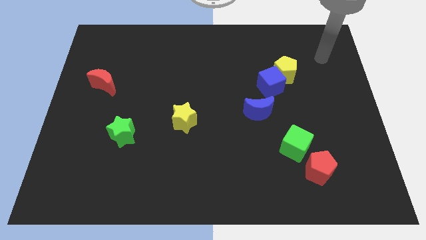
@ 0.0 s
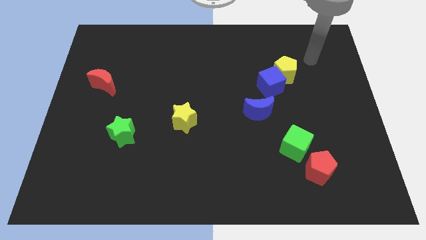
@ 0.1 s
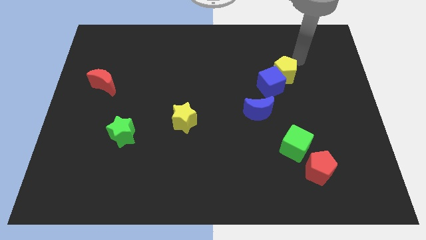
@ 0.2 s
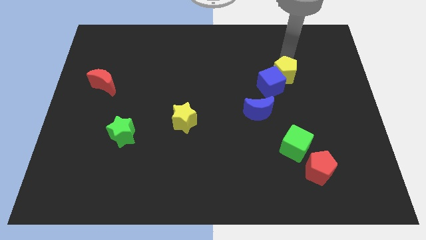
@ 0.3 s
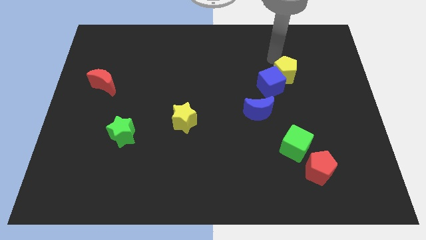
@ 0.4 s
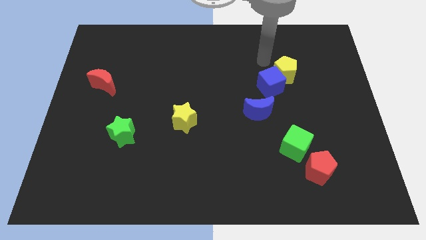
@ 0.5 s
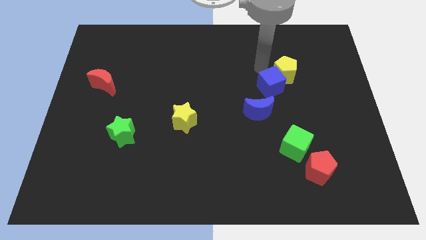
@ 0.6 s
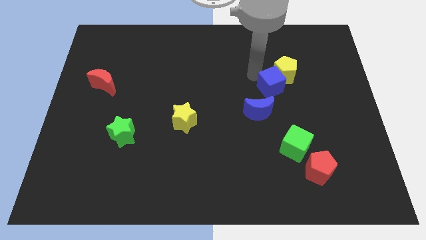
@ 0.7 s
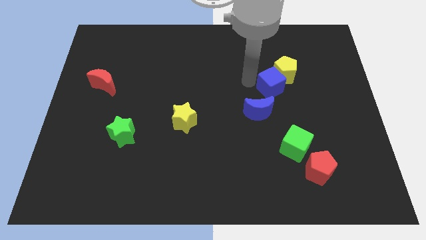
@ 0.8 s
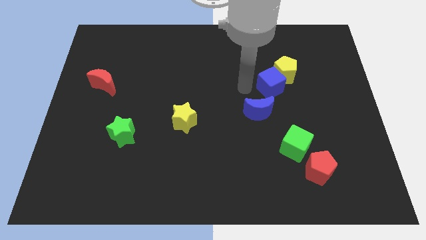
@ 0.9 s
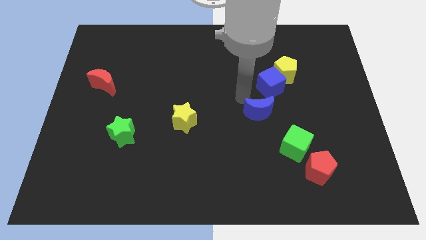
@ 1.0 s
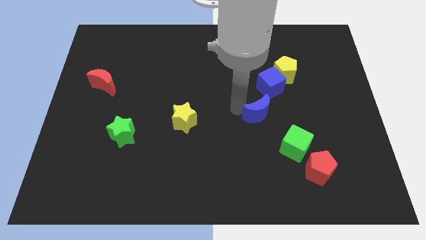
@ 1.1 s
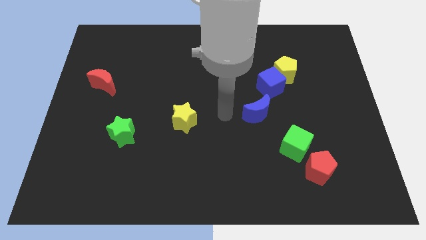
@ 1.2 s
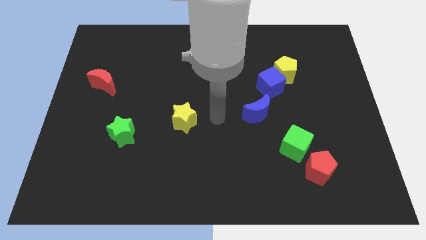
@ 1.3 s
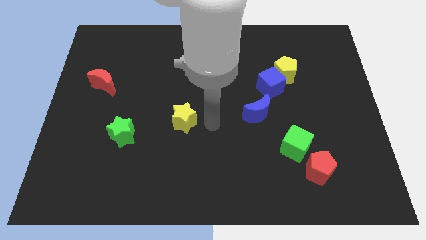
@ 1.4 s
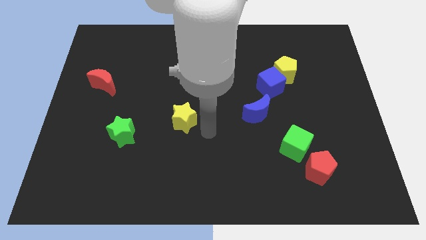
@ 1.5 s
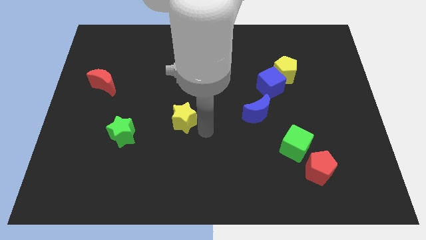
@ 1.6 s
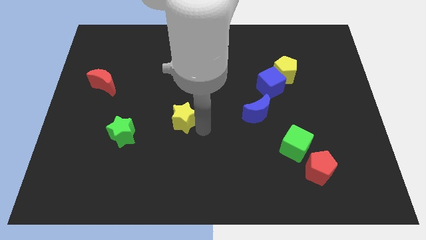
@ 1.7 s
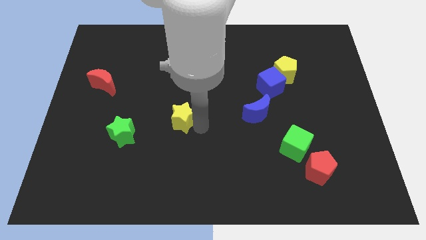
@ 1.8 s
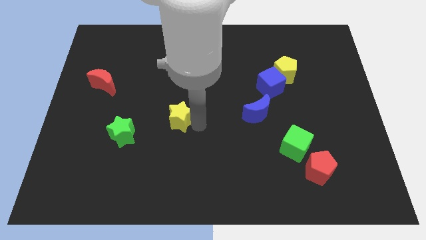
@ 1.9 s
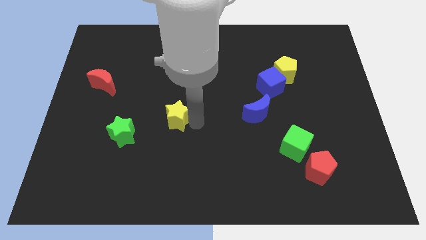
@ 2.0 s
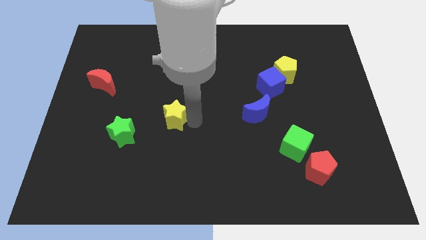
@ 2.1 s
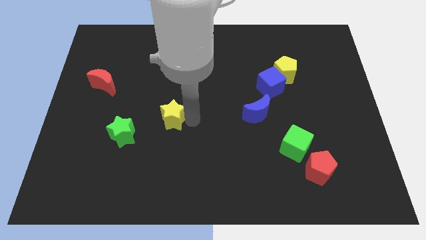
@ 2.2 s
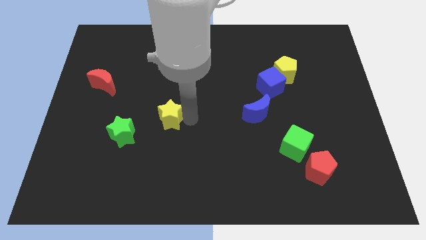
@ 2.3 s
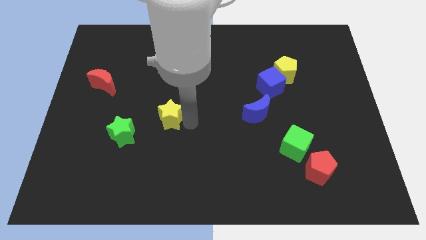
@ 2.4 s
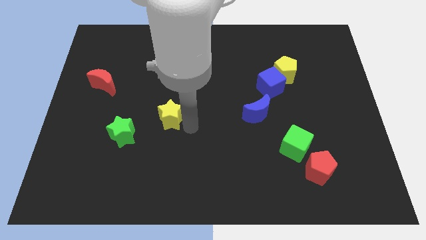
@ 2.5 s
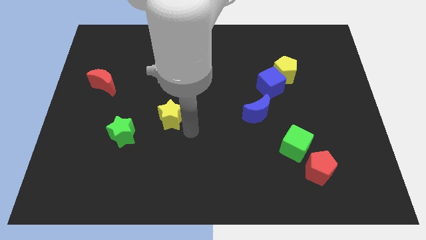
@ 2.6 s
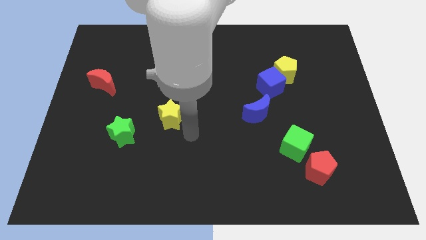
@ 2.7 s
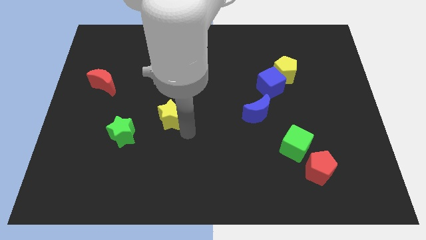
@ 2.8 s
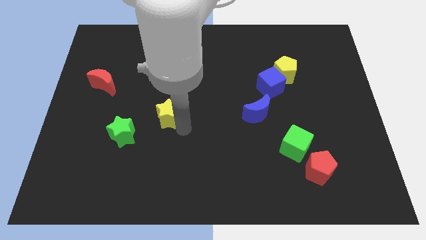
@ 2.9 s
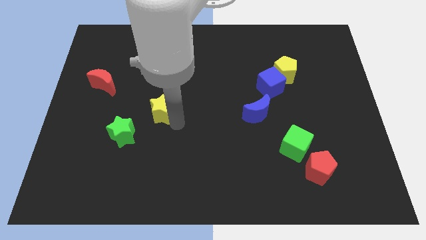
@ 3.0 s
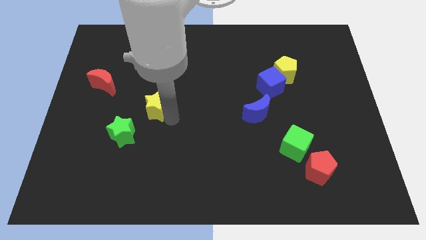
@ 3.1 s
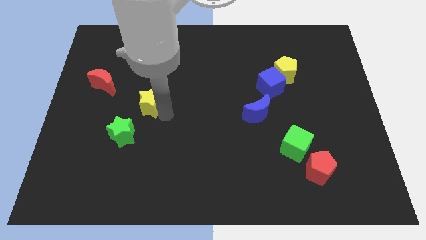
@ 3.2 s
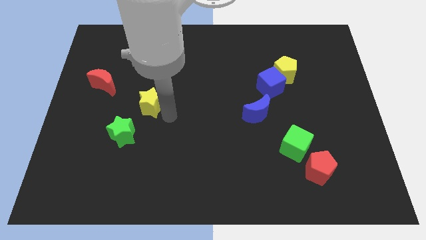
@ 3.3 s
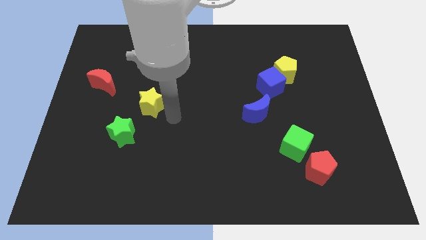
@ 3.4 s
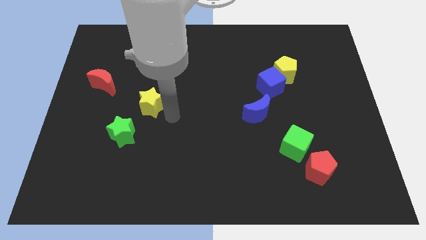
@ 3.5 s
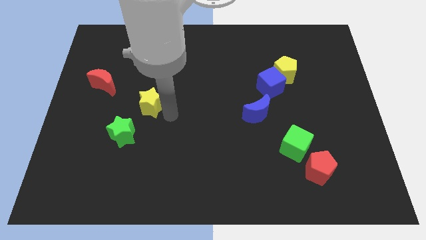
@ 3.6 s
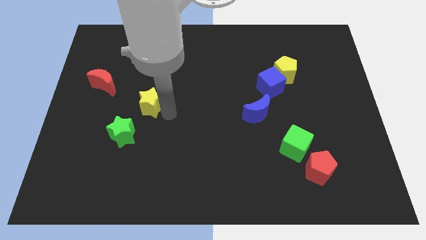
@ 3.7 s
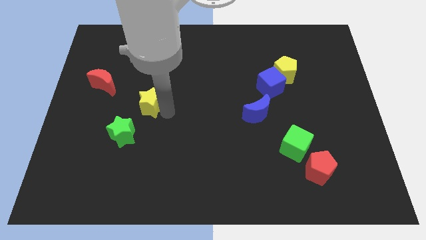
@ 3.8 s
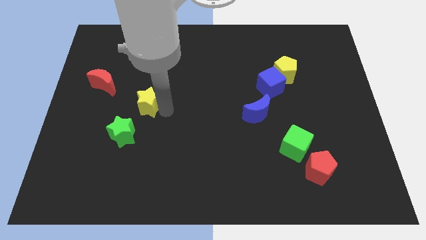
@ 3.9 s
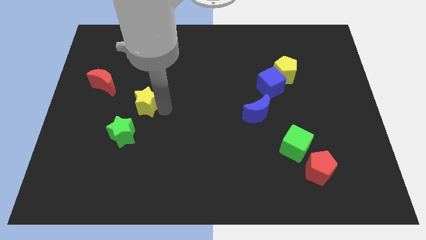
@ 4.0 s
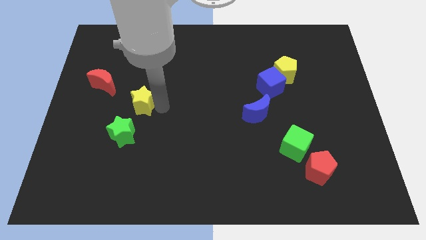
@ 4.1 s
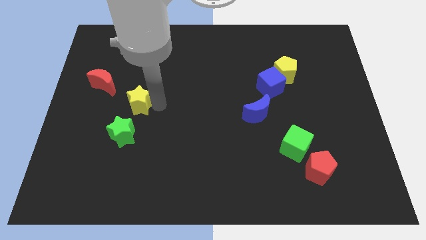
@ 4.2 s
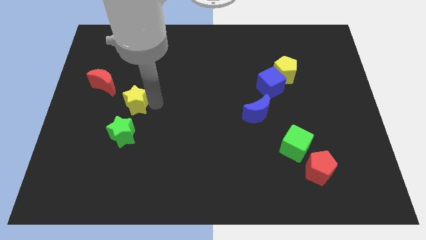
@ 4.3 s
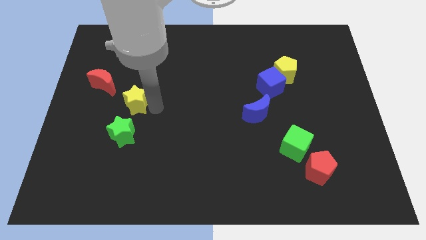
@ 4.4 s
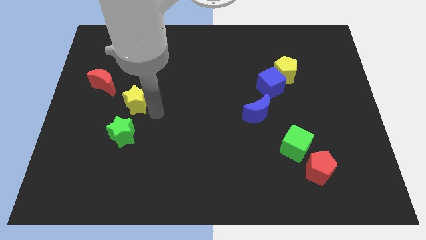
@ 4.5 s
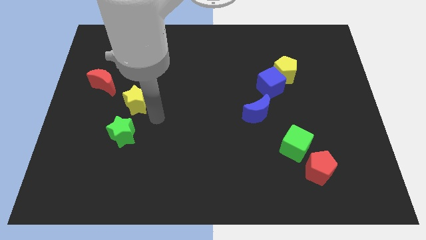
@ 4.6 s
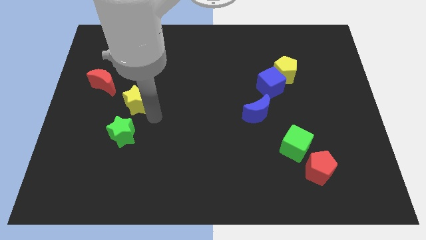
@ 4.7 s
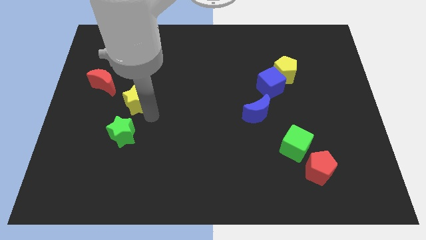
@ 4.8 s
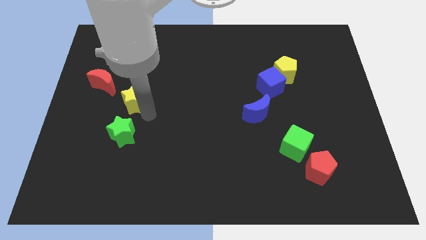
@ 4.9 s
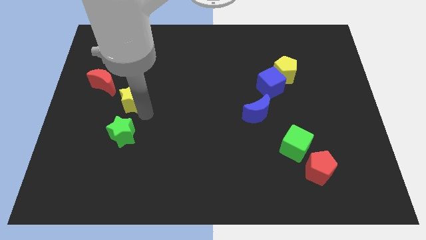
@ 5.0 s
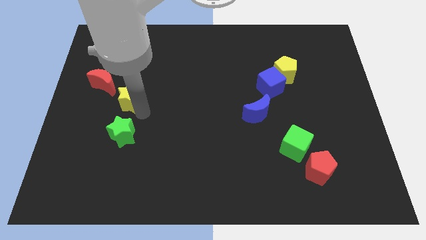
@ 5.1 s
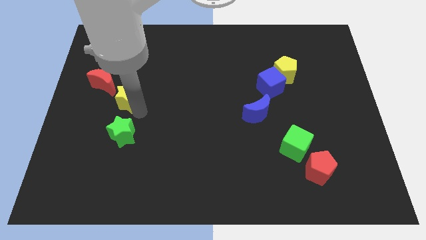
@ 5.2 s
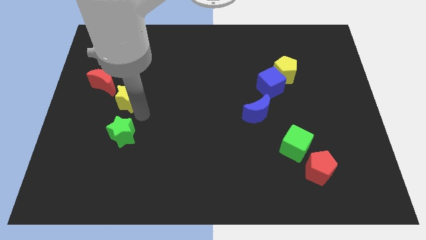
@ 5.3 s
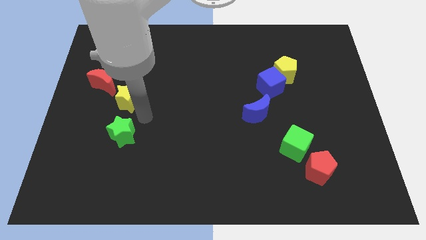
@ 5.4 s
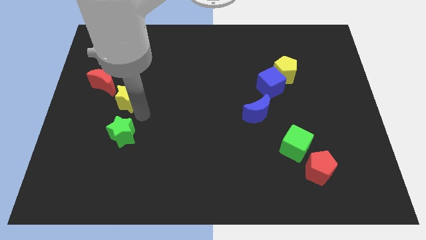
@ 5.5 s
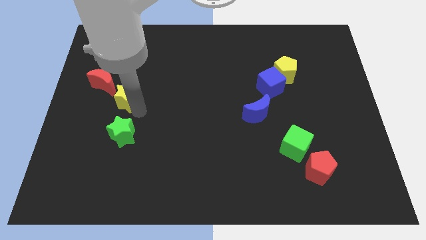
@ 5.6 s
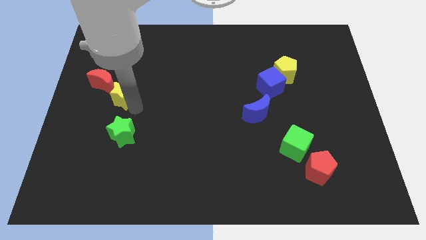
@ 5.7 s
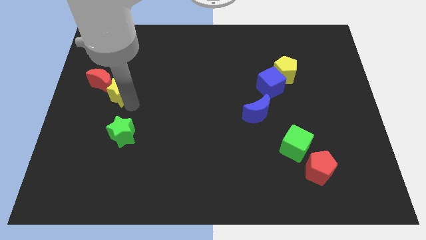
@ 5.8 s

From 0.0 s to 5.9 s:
push the yellow star to the red moon

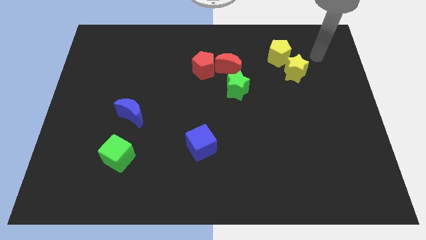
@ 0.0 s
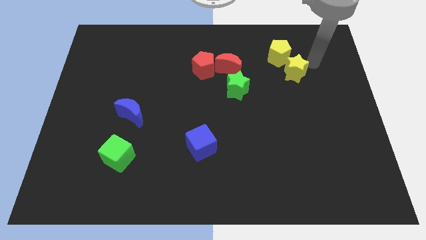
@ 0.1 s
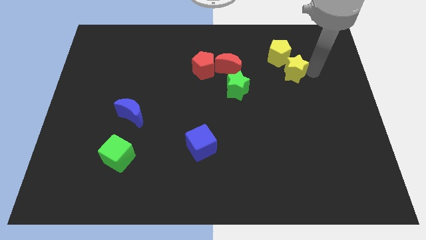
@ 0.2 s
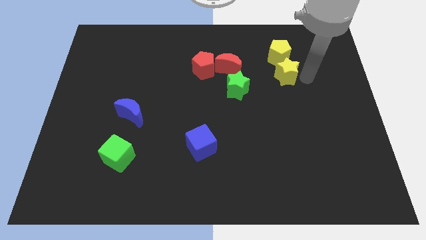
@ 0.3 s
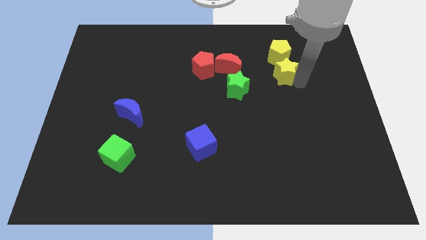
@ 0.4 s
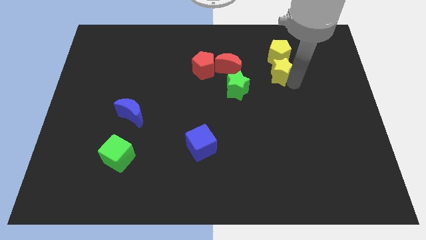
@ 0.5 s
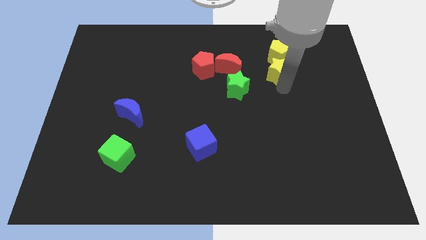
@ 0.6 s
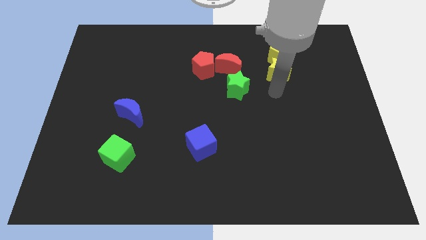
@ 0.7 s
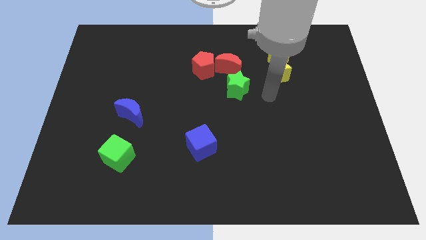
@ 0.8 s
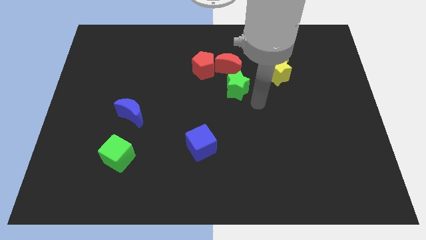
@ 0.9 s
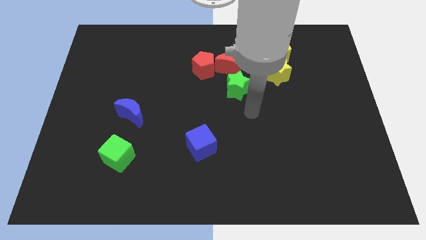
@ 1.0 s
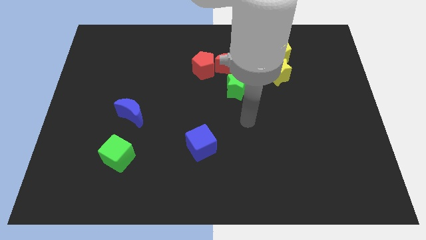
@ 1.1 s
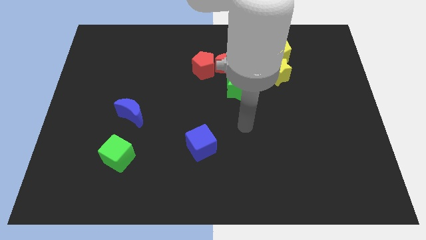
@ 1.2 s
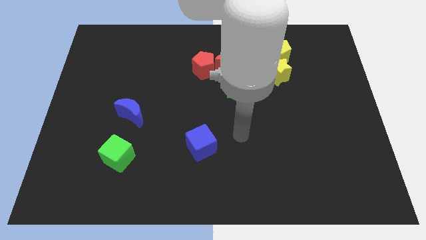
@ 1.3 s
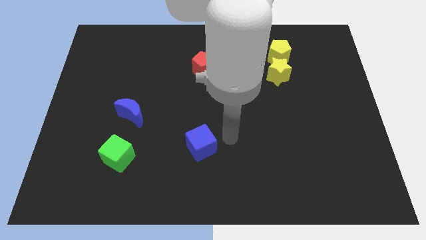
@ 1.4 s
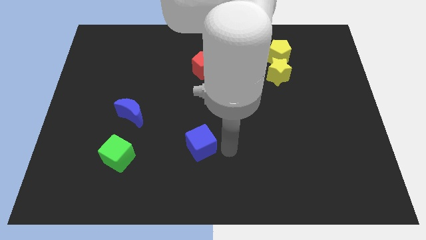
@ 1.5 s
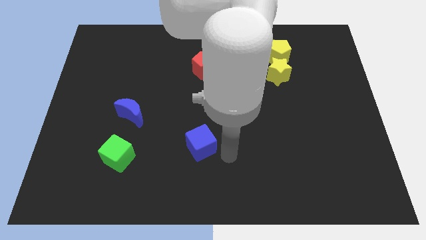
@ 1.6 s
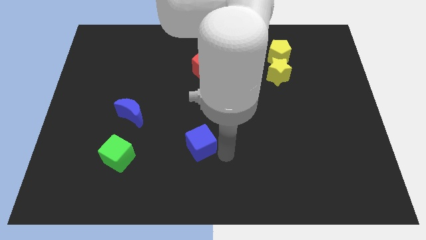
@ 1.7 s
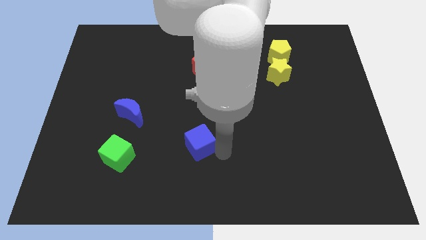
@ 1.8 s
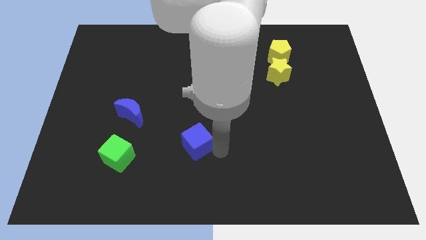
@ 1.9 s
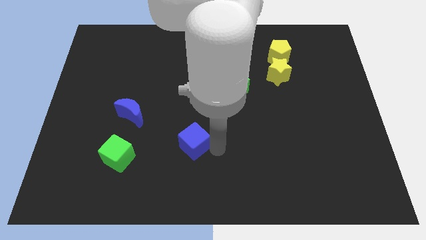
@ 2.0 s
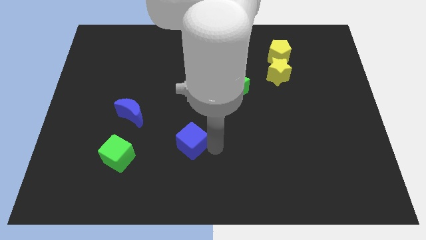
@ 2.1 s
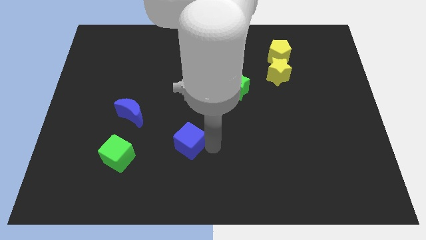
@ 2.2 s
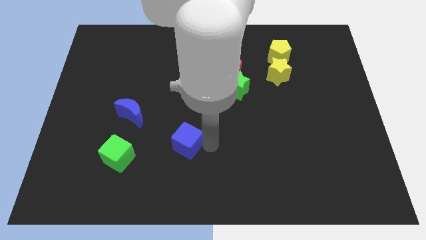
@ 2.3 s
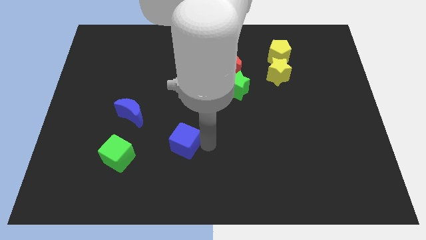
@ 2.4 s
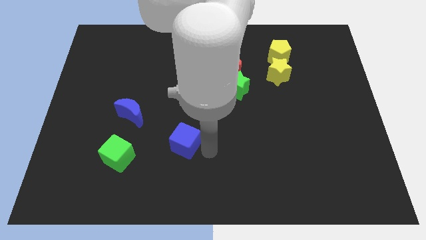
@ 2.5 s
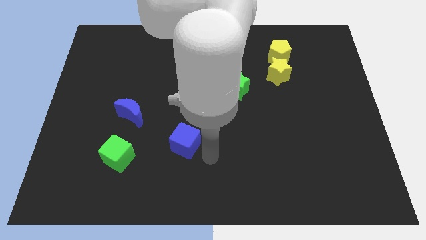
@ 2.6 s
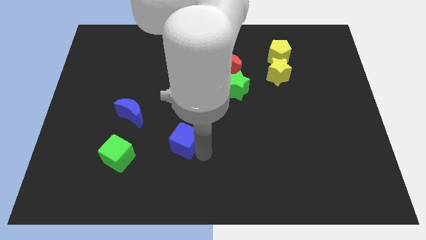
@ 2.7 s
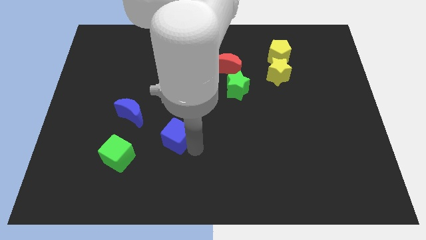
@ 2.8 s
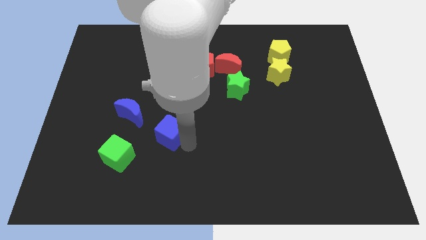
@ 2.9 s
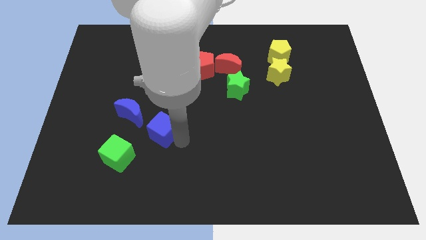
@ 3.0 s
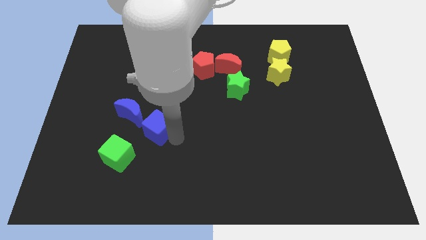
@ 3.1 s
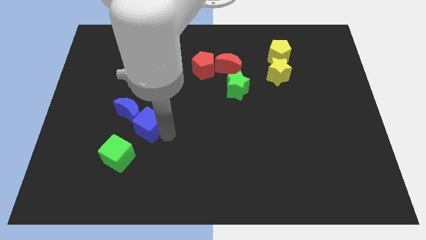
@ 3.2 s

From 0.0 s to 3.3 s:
move the blue cube to the blue moon
